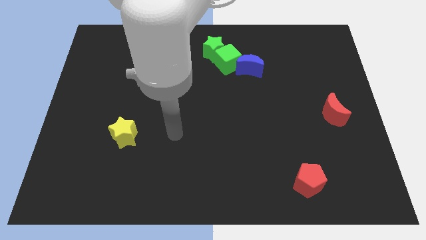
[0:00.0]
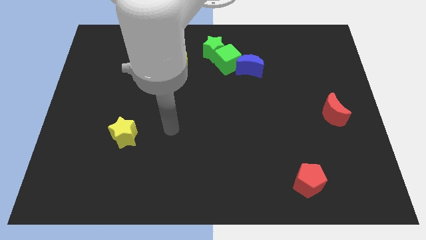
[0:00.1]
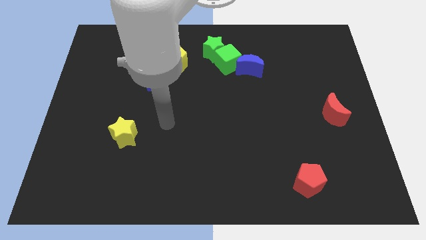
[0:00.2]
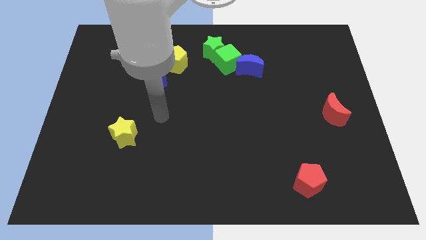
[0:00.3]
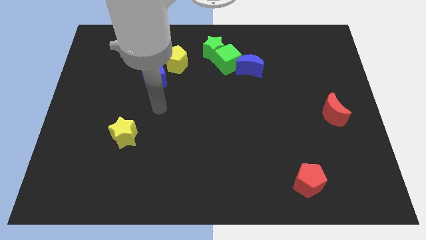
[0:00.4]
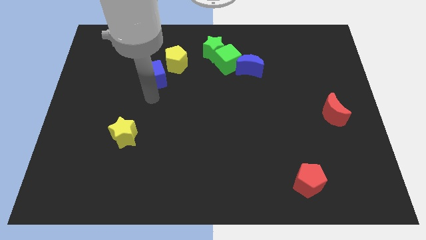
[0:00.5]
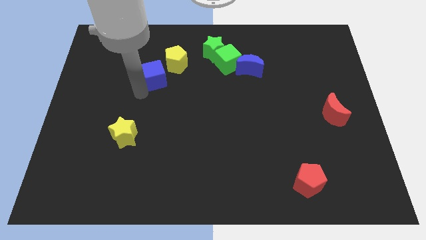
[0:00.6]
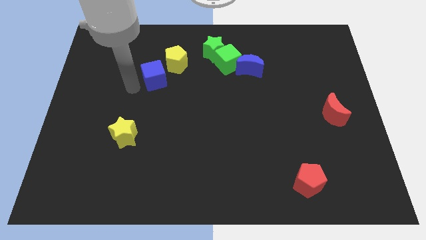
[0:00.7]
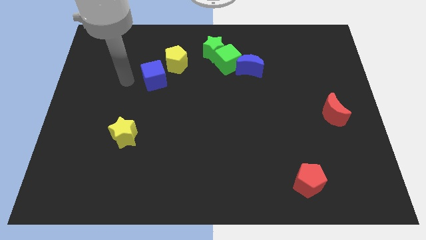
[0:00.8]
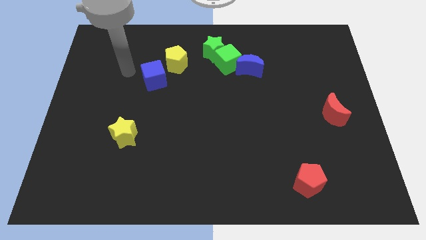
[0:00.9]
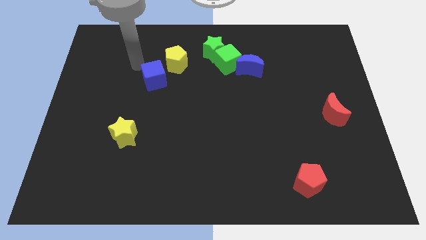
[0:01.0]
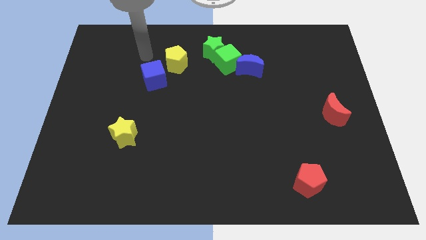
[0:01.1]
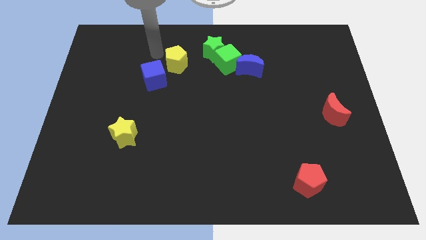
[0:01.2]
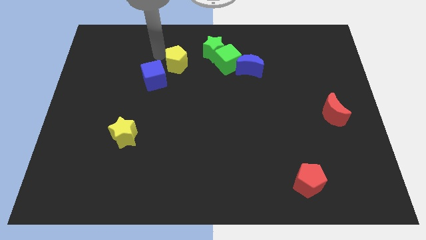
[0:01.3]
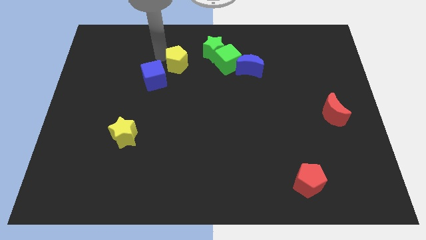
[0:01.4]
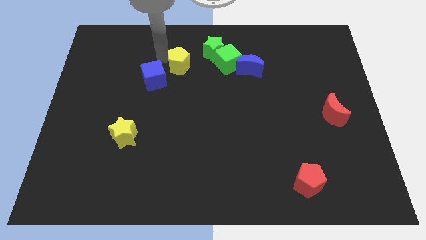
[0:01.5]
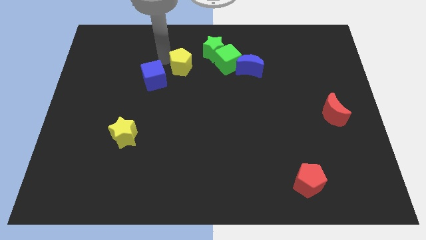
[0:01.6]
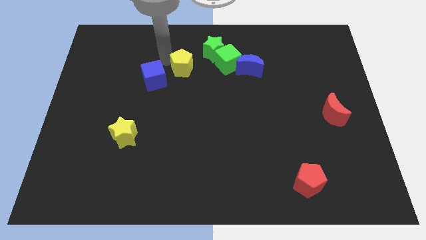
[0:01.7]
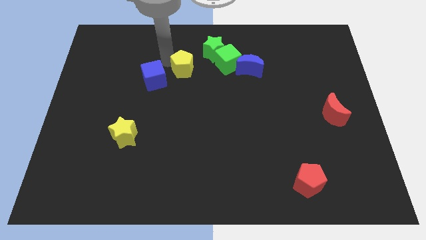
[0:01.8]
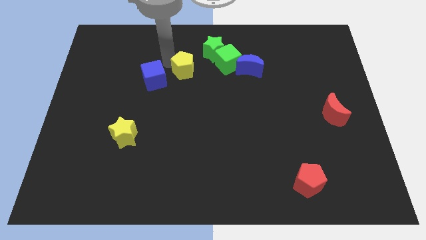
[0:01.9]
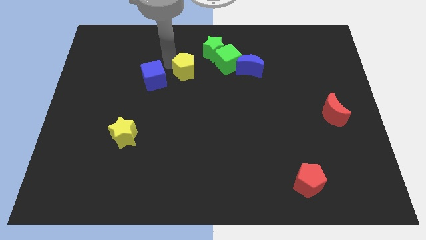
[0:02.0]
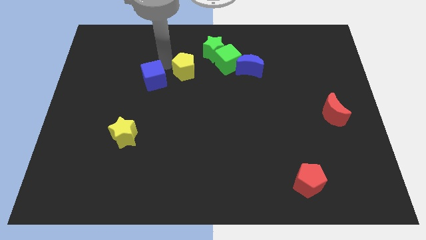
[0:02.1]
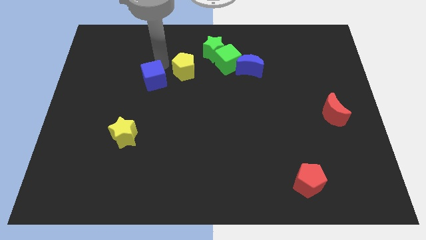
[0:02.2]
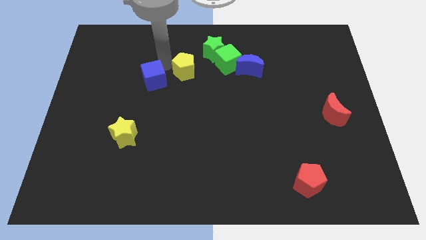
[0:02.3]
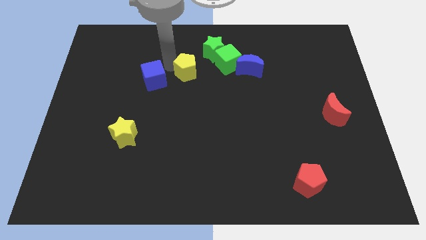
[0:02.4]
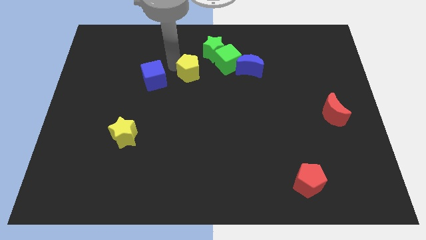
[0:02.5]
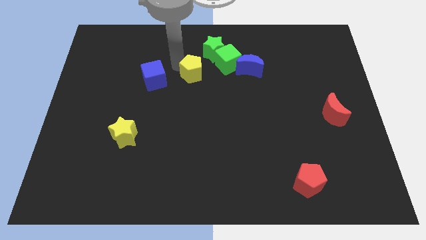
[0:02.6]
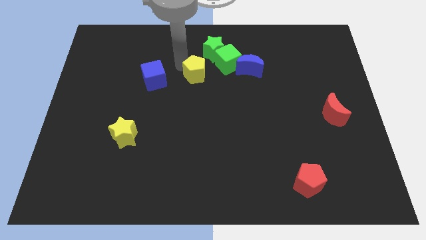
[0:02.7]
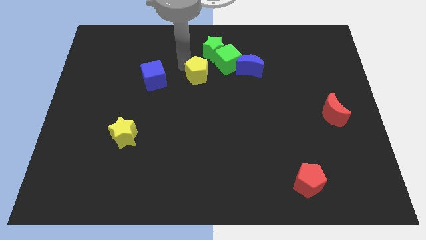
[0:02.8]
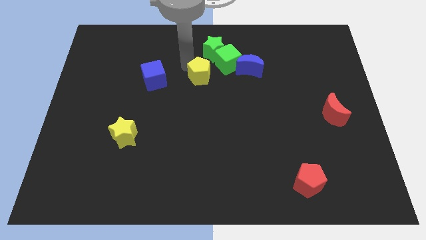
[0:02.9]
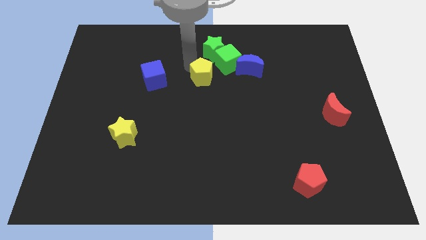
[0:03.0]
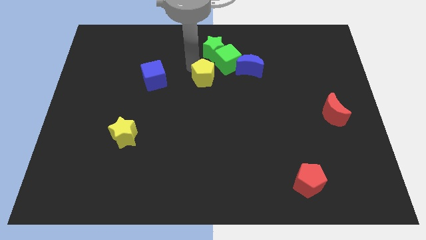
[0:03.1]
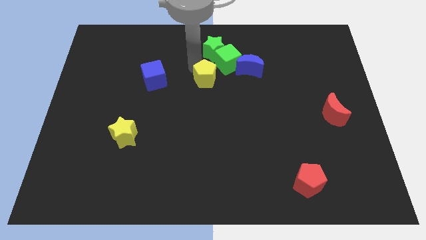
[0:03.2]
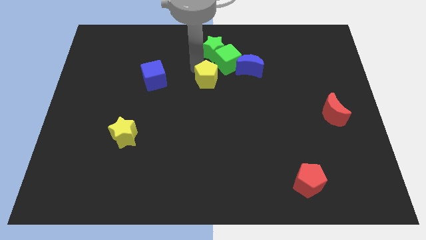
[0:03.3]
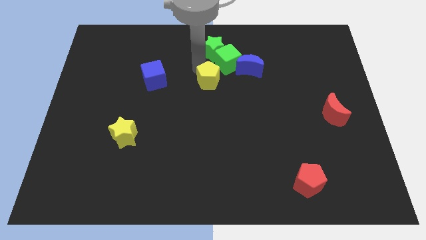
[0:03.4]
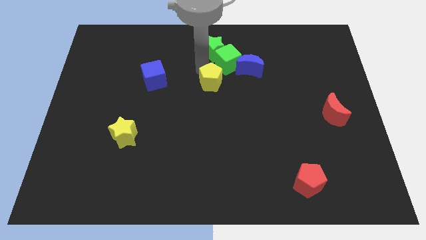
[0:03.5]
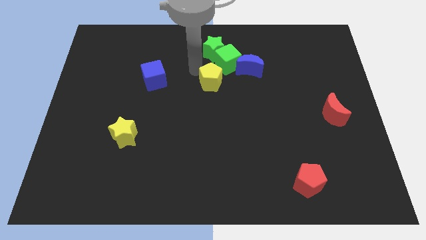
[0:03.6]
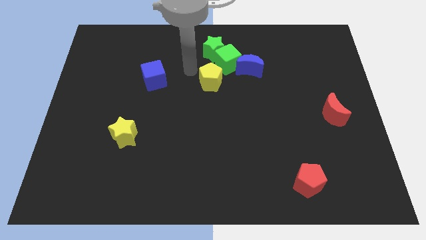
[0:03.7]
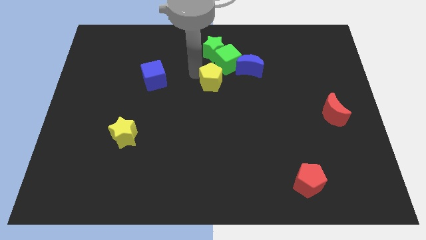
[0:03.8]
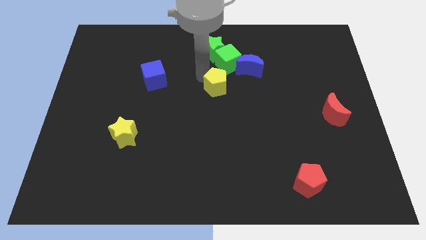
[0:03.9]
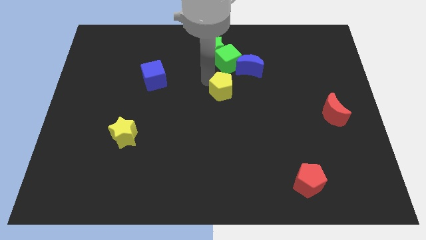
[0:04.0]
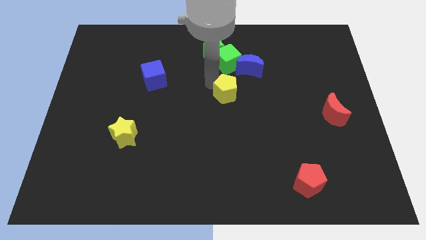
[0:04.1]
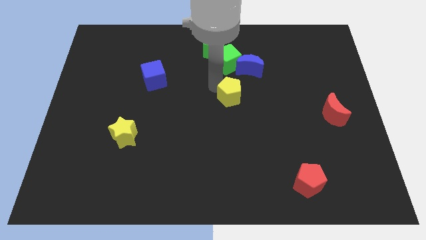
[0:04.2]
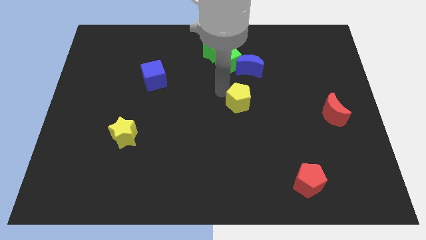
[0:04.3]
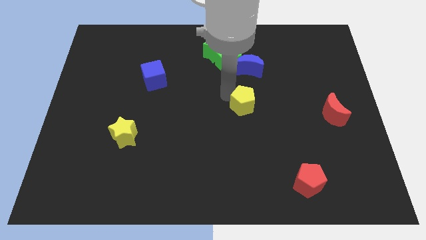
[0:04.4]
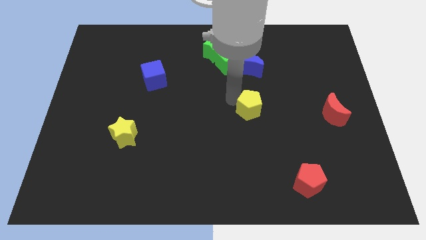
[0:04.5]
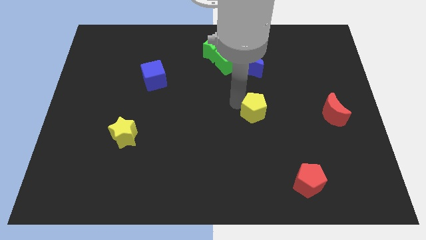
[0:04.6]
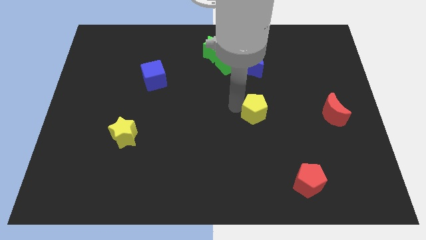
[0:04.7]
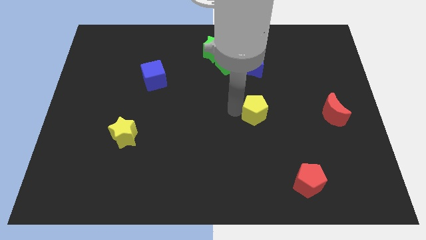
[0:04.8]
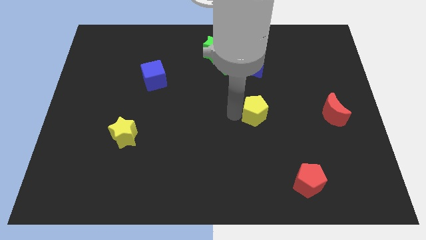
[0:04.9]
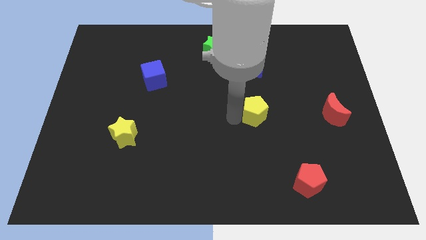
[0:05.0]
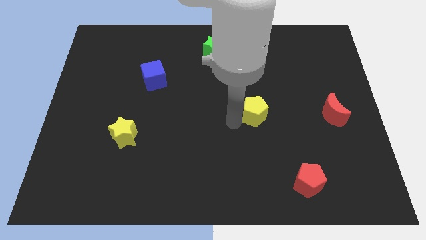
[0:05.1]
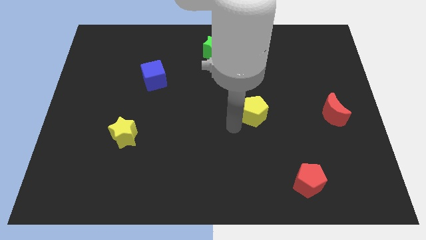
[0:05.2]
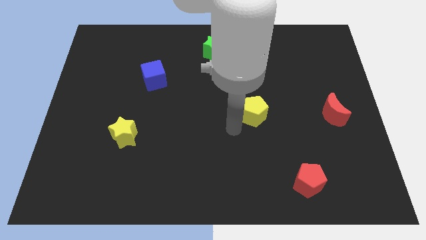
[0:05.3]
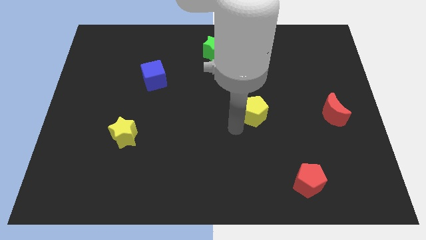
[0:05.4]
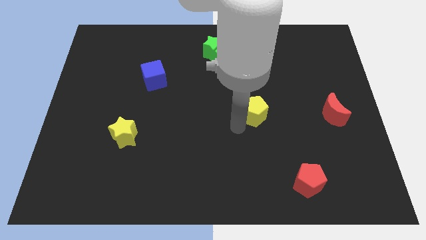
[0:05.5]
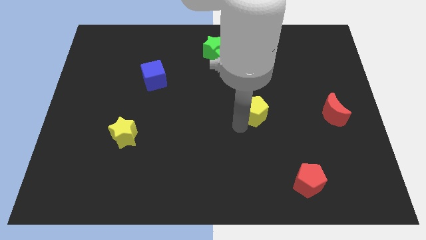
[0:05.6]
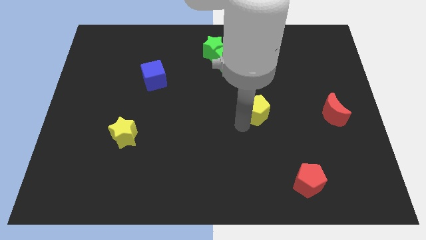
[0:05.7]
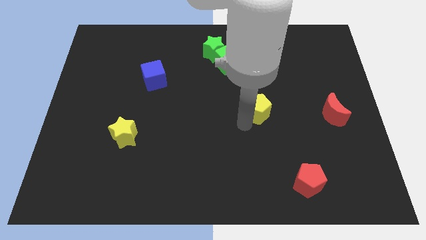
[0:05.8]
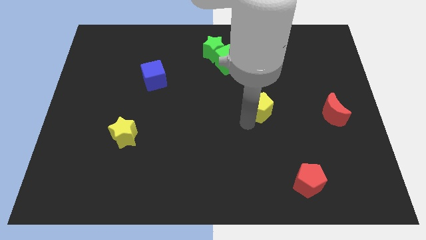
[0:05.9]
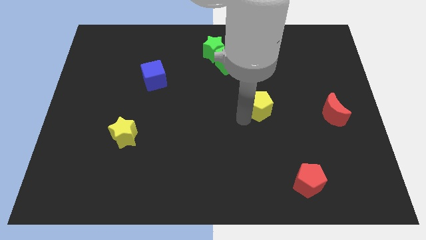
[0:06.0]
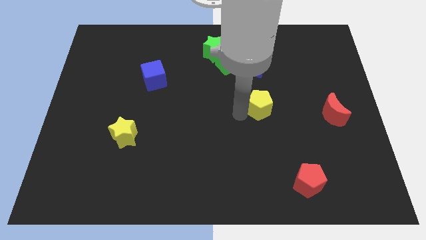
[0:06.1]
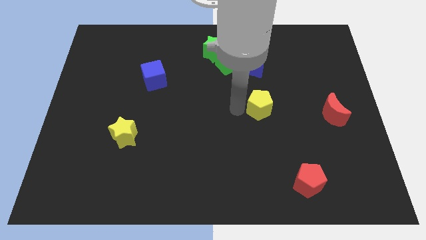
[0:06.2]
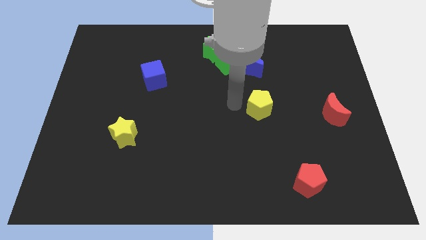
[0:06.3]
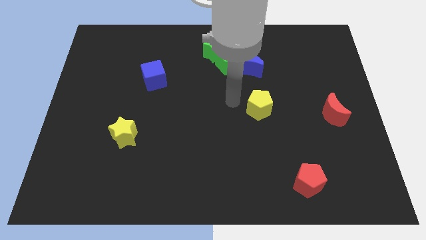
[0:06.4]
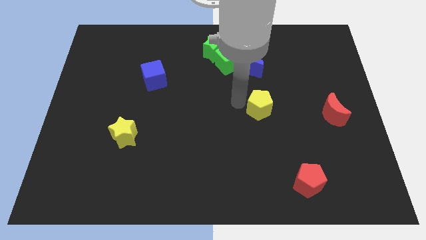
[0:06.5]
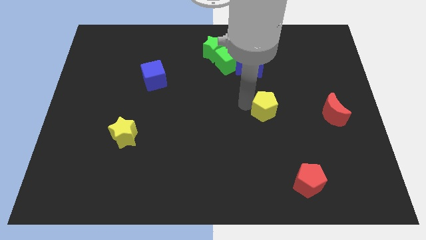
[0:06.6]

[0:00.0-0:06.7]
push the yellow pentagon left of the red moon
